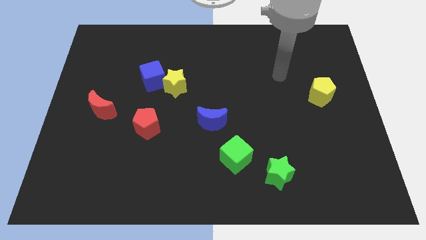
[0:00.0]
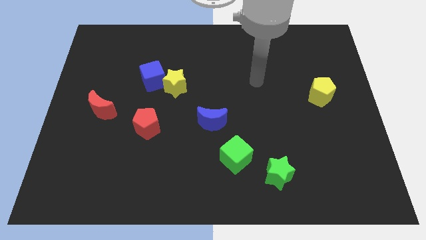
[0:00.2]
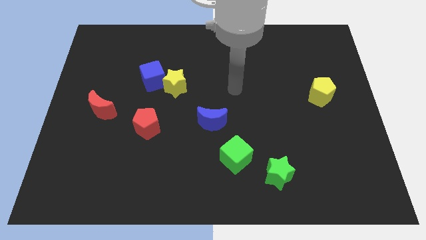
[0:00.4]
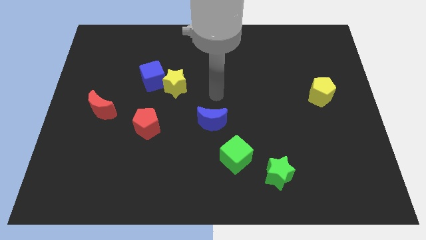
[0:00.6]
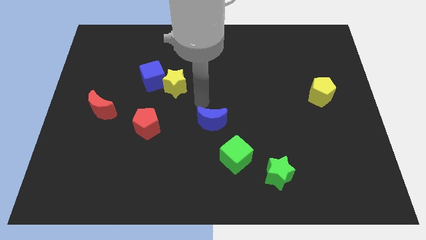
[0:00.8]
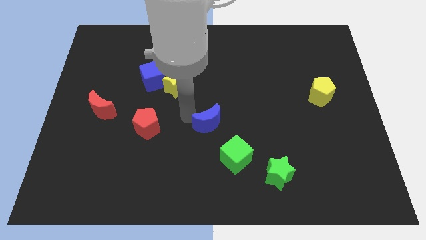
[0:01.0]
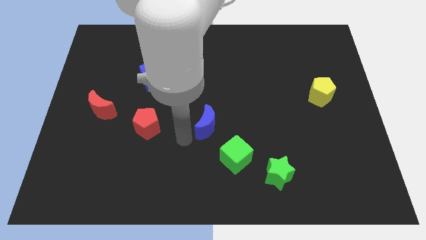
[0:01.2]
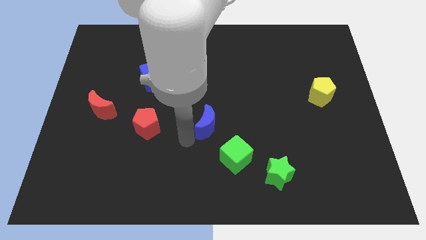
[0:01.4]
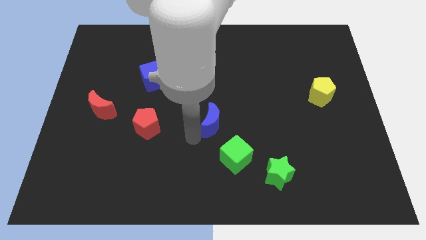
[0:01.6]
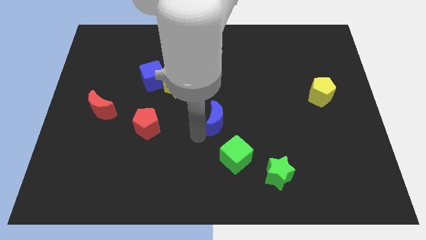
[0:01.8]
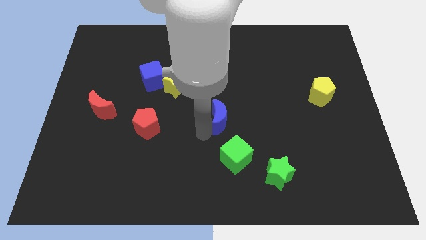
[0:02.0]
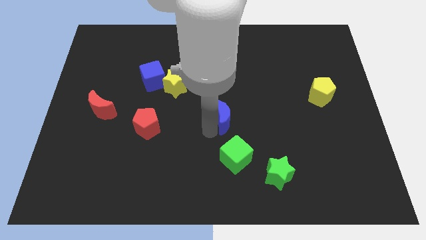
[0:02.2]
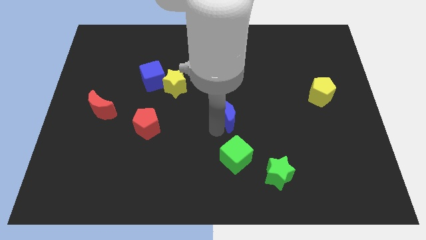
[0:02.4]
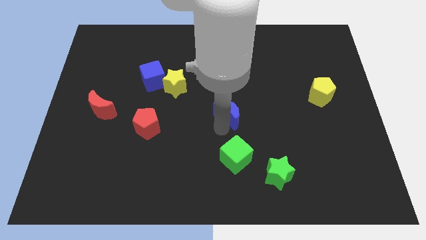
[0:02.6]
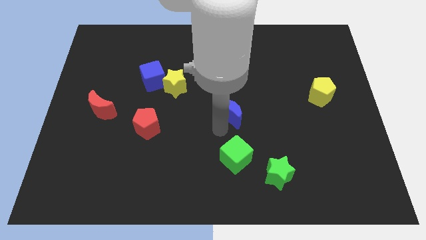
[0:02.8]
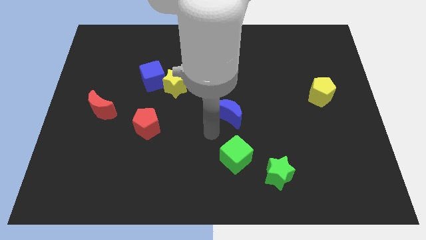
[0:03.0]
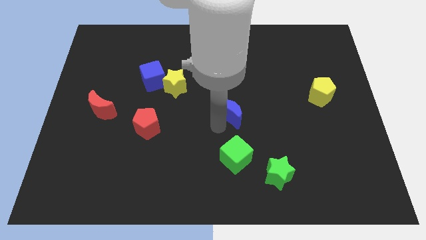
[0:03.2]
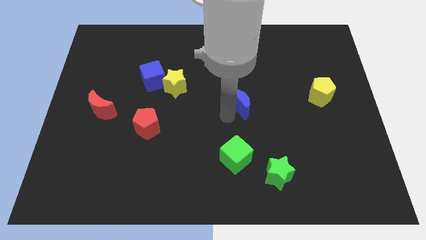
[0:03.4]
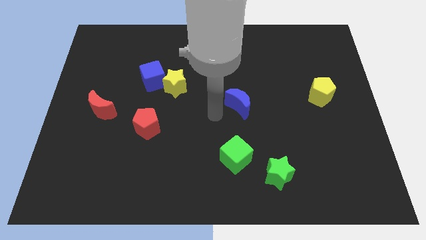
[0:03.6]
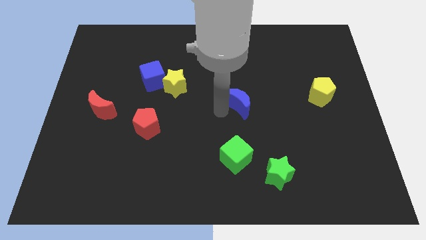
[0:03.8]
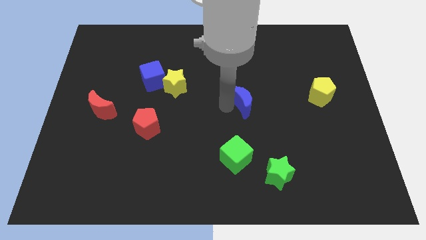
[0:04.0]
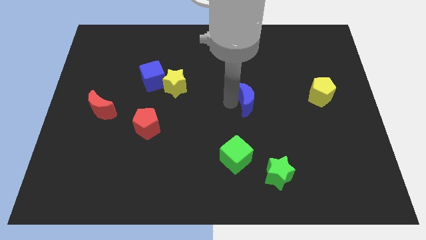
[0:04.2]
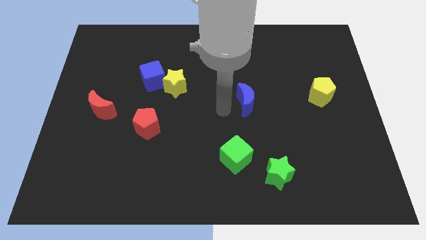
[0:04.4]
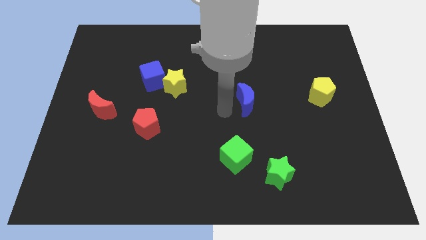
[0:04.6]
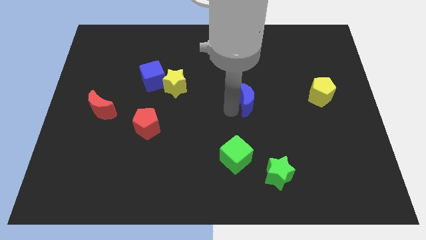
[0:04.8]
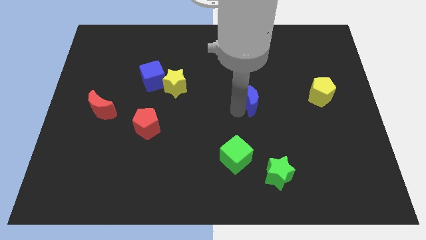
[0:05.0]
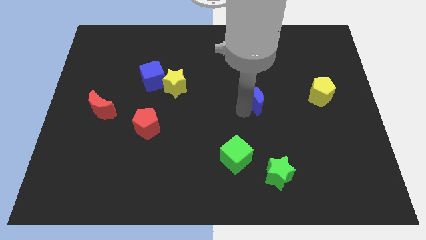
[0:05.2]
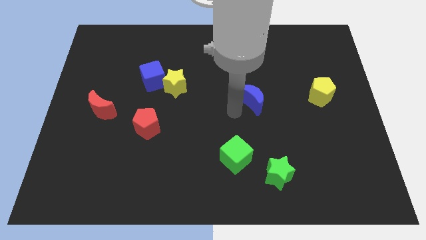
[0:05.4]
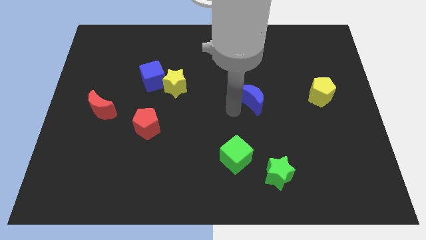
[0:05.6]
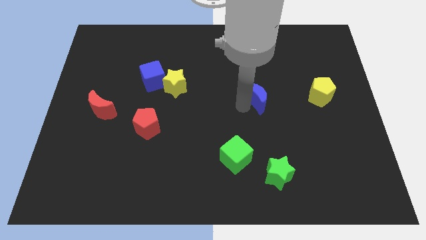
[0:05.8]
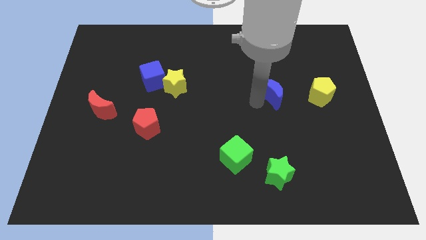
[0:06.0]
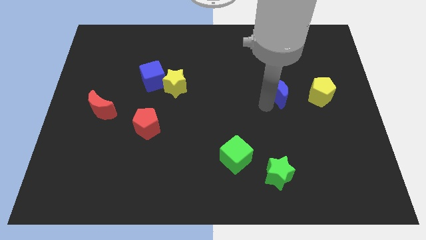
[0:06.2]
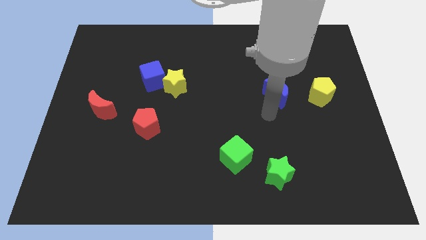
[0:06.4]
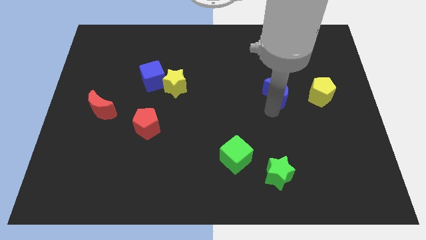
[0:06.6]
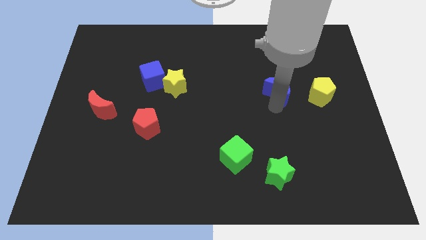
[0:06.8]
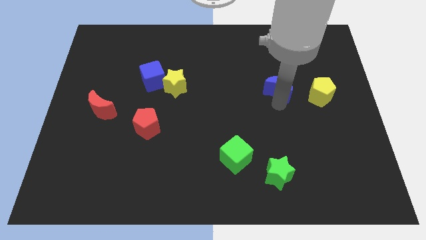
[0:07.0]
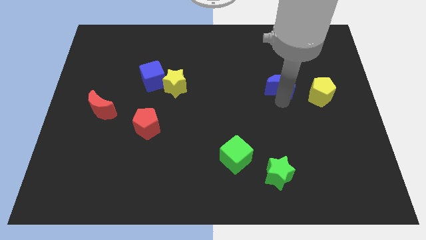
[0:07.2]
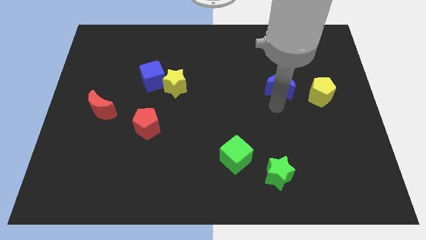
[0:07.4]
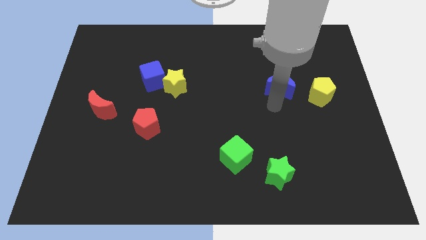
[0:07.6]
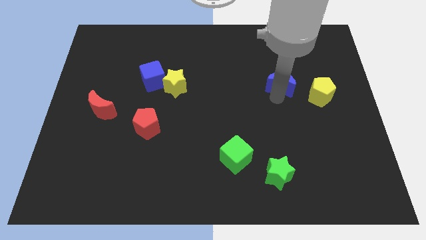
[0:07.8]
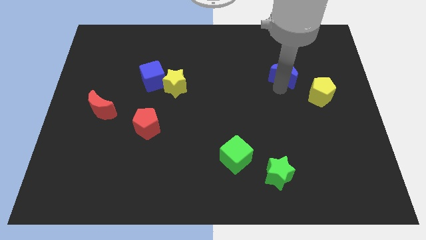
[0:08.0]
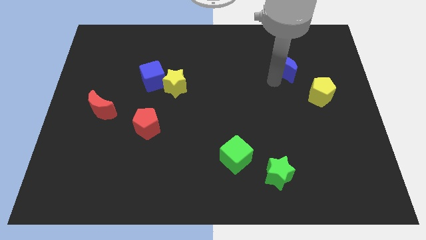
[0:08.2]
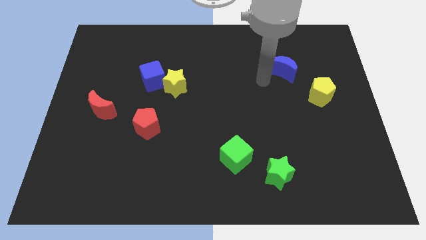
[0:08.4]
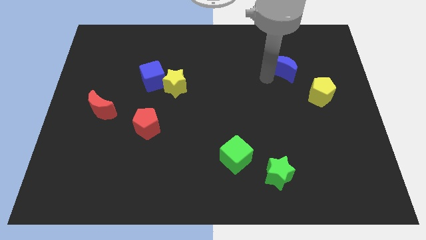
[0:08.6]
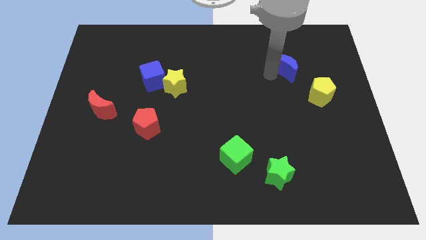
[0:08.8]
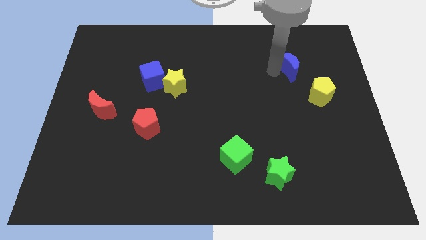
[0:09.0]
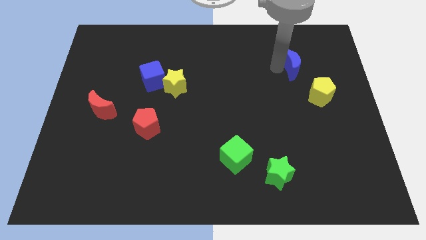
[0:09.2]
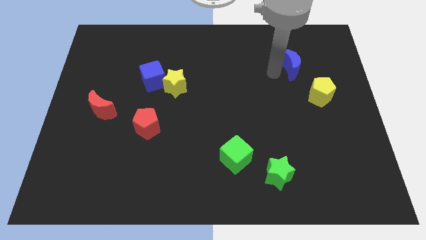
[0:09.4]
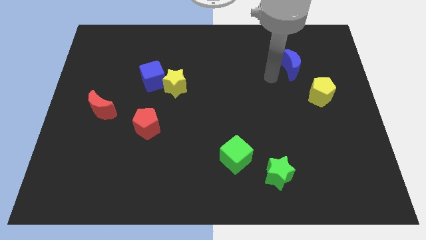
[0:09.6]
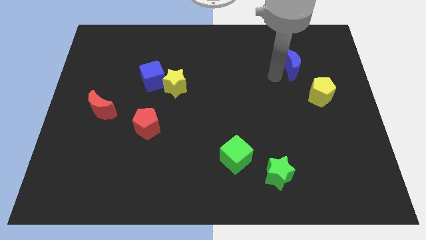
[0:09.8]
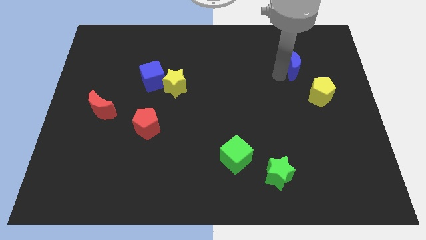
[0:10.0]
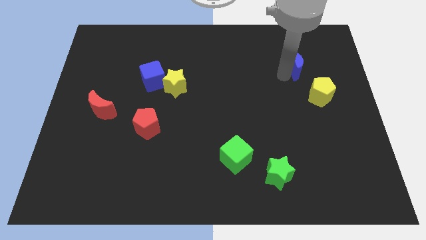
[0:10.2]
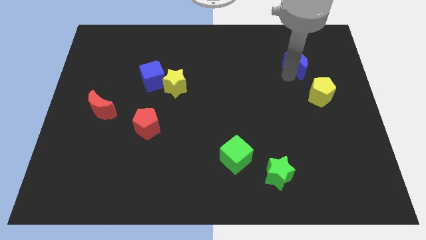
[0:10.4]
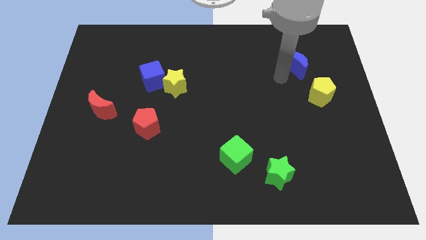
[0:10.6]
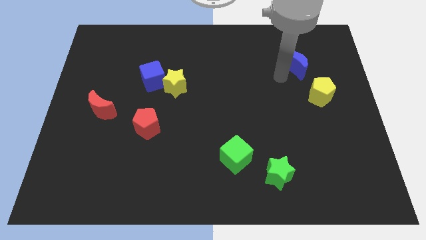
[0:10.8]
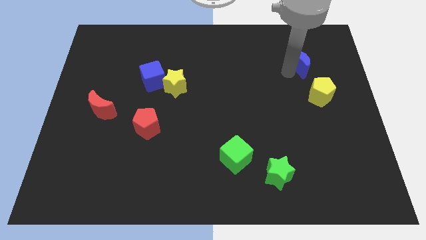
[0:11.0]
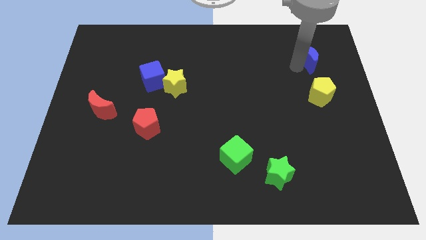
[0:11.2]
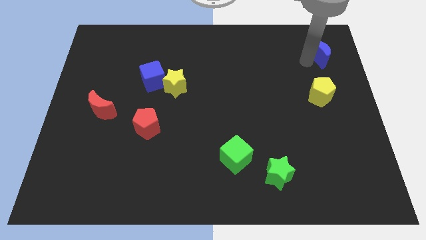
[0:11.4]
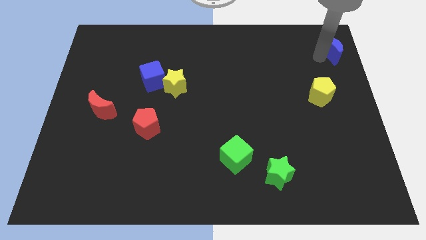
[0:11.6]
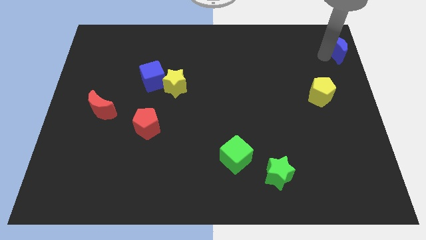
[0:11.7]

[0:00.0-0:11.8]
put the blue moon to the top right corner

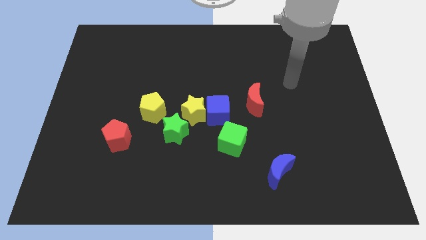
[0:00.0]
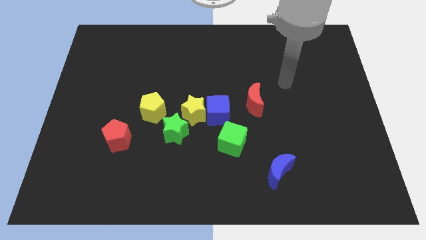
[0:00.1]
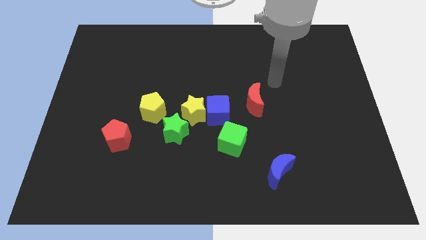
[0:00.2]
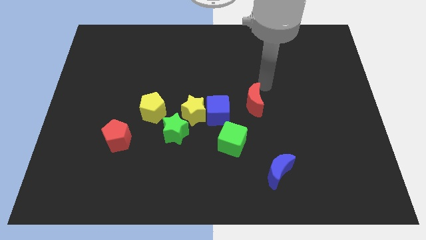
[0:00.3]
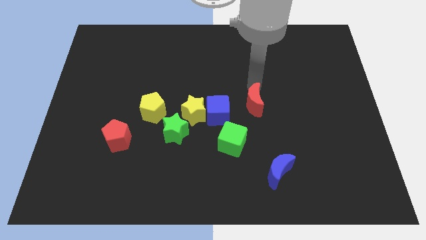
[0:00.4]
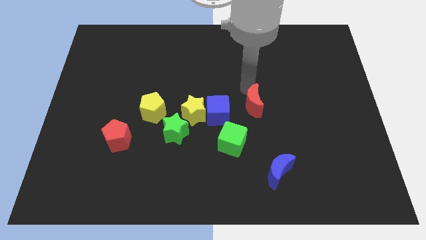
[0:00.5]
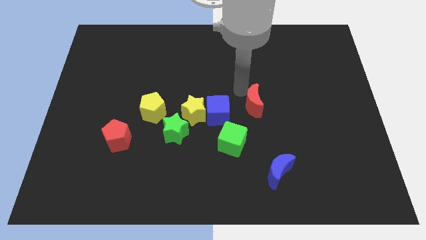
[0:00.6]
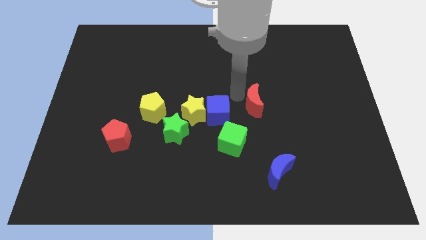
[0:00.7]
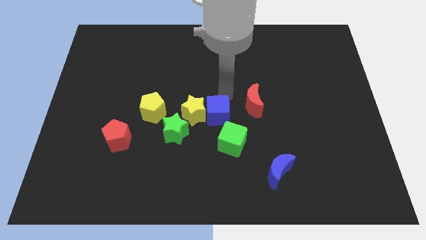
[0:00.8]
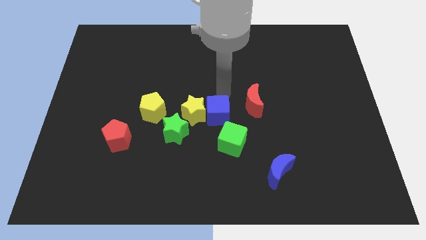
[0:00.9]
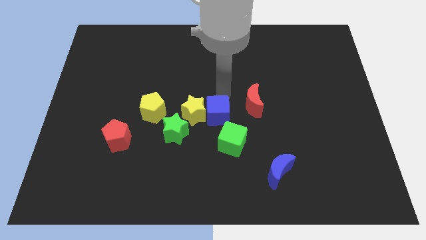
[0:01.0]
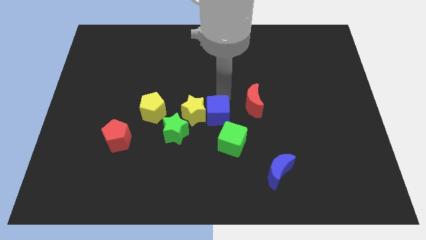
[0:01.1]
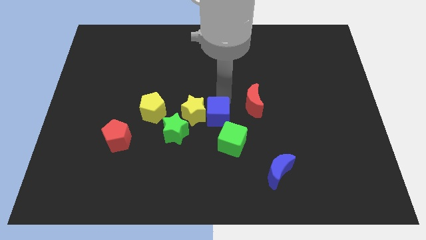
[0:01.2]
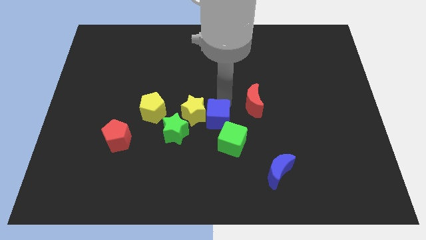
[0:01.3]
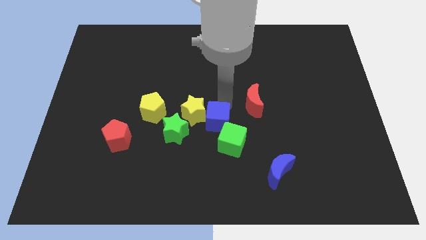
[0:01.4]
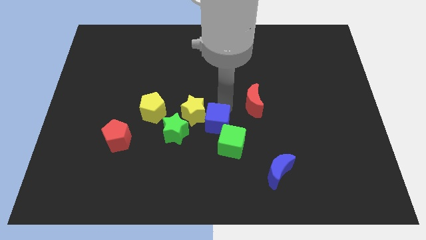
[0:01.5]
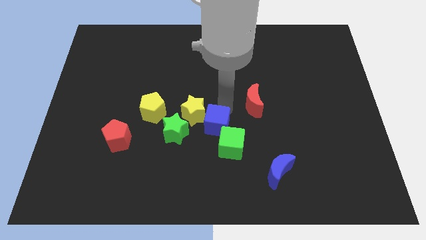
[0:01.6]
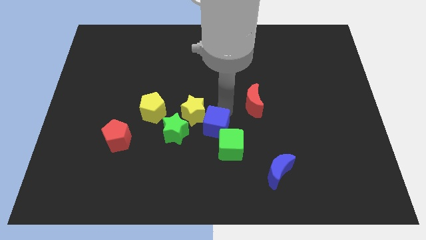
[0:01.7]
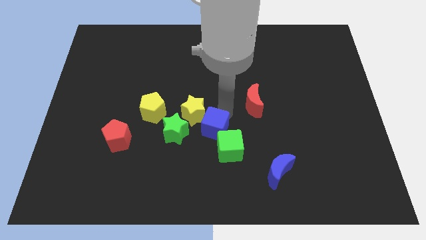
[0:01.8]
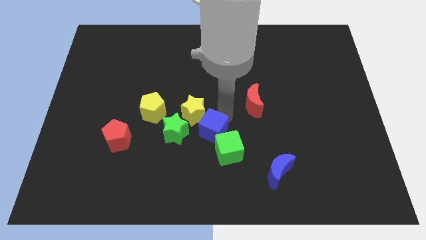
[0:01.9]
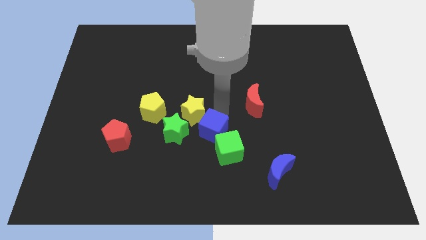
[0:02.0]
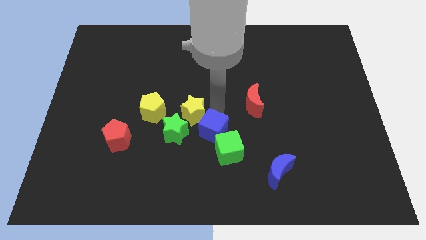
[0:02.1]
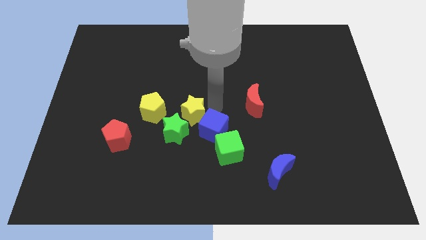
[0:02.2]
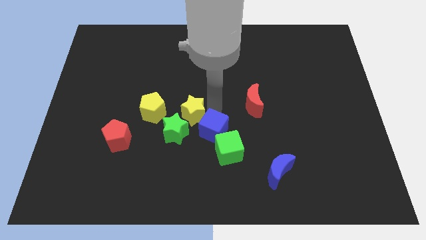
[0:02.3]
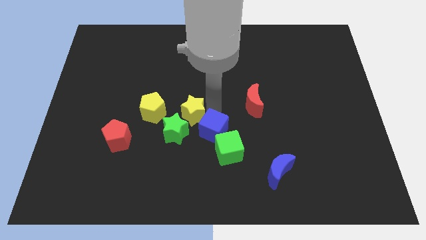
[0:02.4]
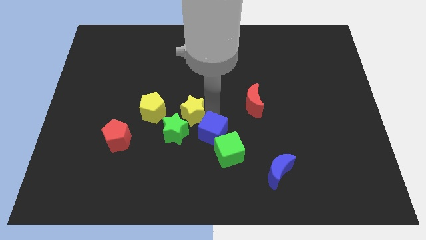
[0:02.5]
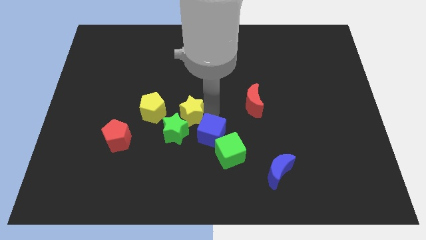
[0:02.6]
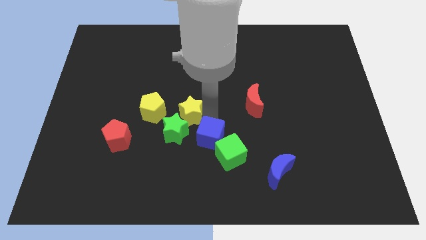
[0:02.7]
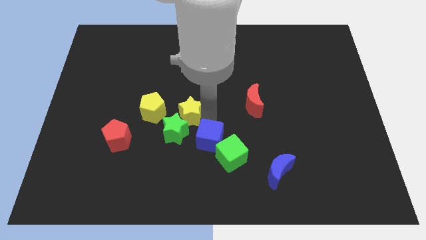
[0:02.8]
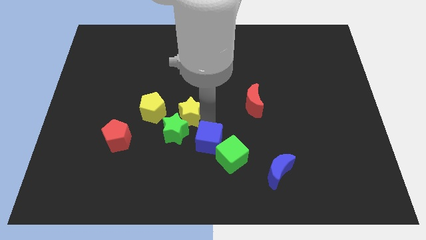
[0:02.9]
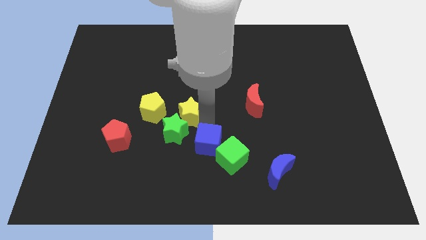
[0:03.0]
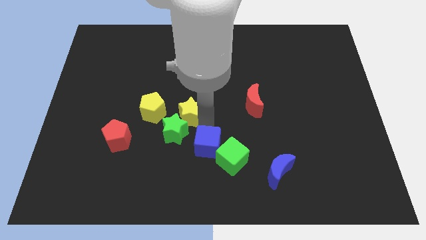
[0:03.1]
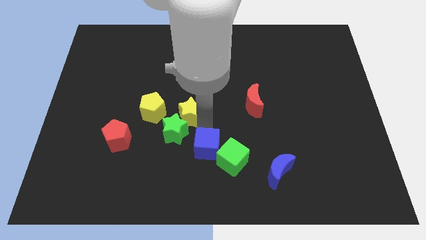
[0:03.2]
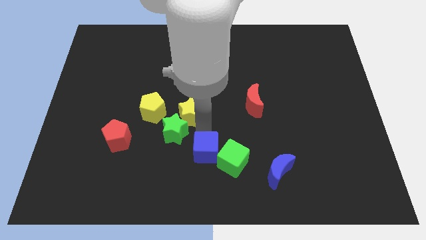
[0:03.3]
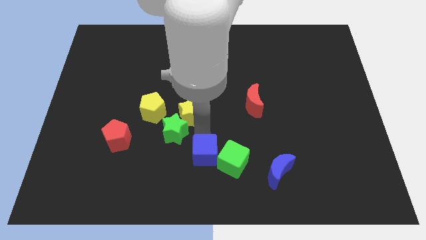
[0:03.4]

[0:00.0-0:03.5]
put the blue cube to the bottom side
